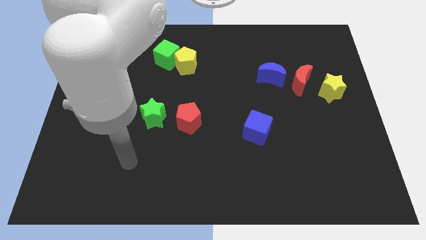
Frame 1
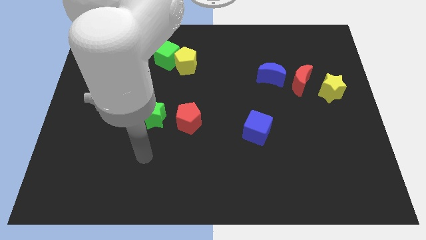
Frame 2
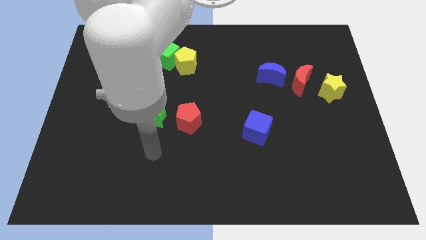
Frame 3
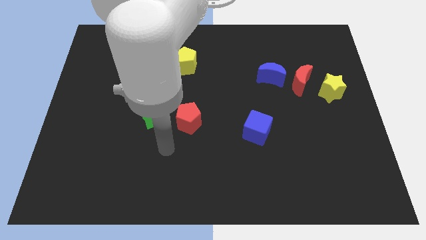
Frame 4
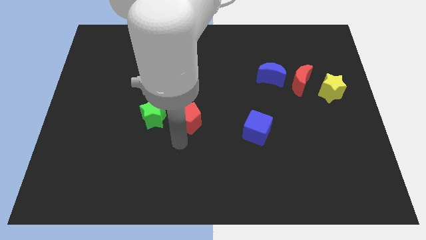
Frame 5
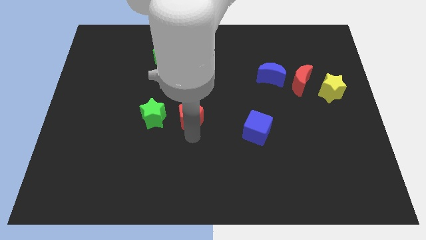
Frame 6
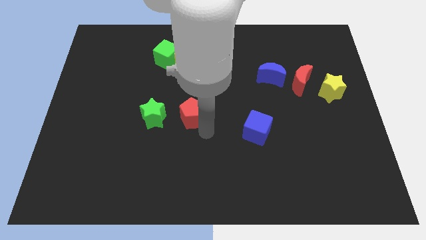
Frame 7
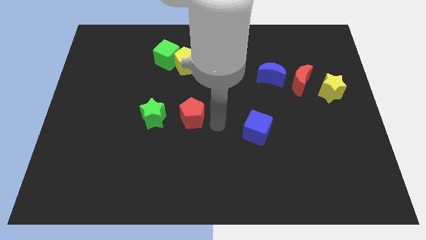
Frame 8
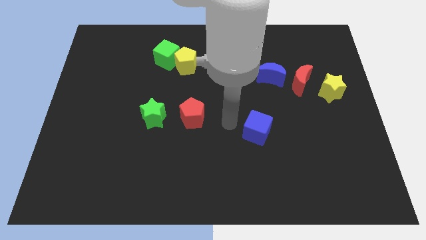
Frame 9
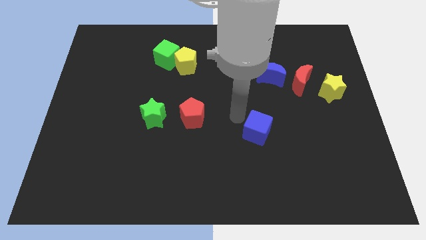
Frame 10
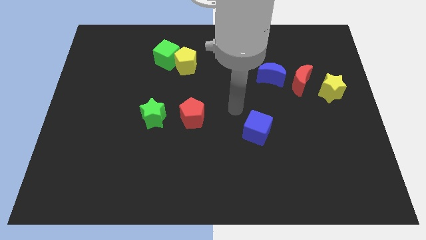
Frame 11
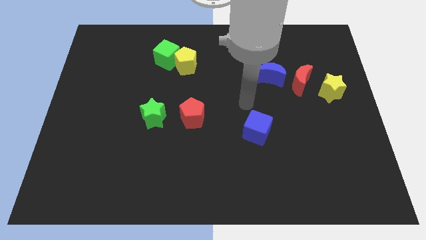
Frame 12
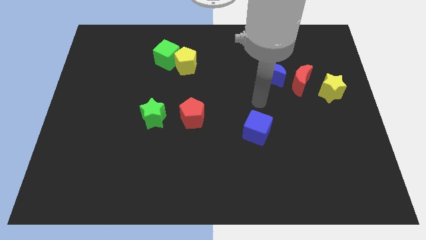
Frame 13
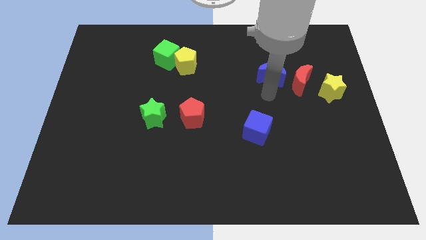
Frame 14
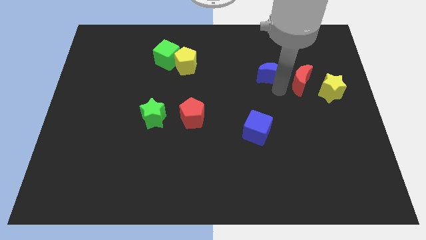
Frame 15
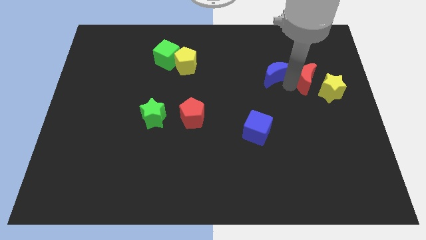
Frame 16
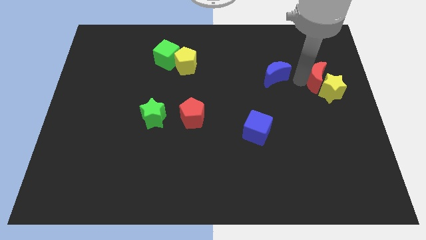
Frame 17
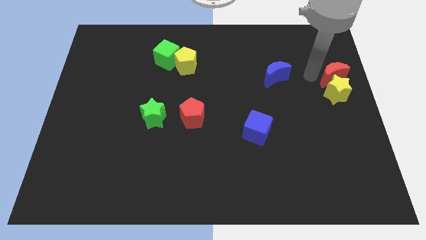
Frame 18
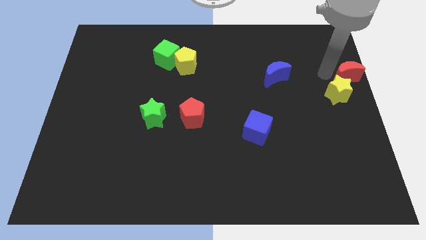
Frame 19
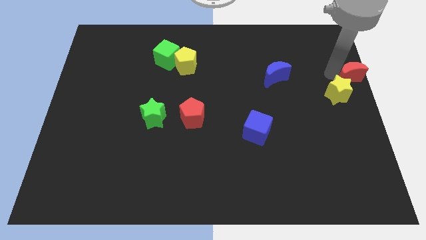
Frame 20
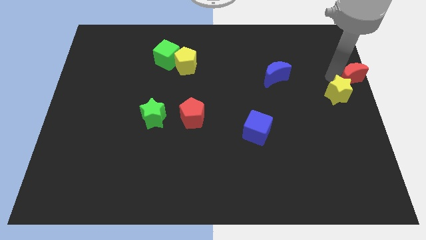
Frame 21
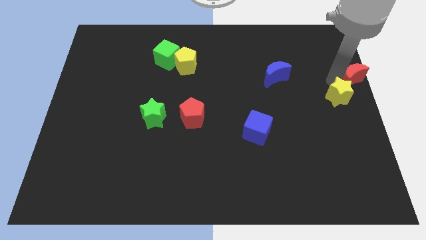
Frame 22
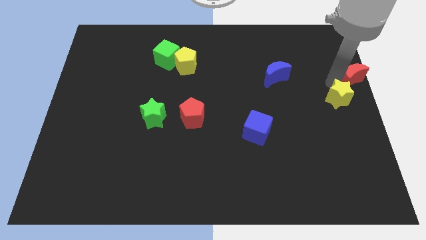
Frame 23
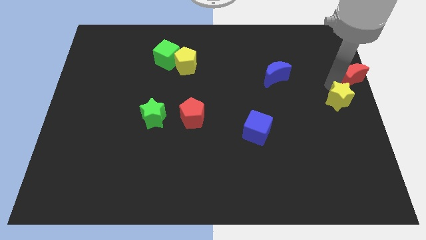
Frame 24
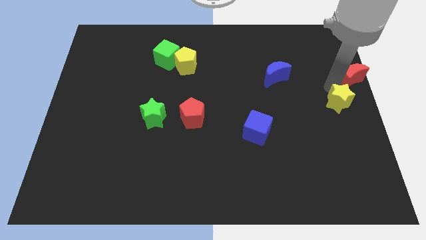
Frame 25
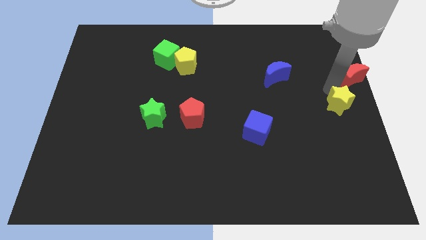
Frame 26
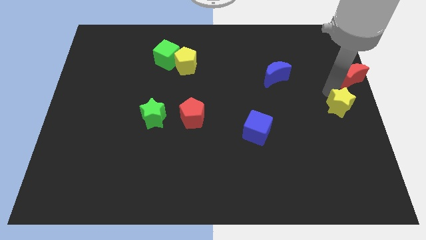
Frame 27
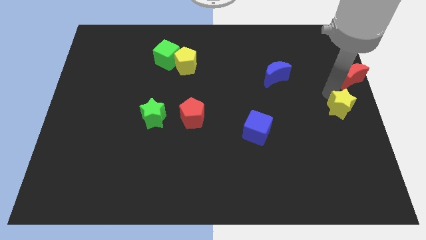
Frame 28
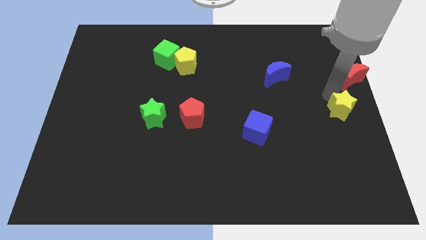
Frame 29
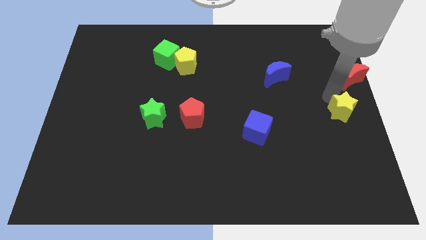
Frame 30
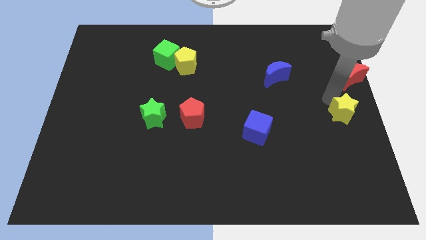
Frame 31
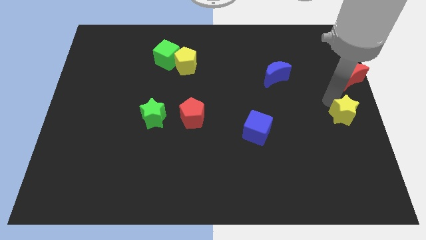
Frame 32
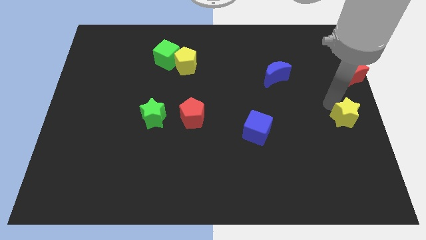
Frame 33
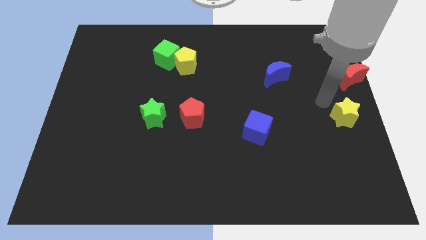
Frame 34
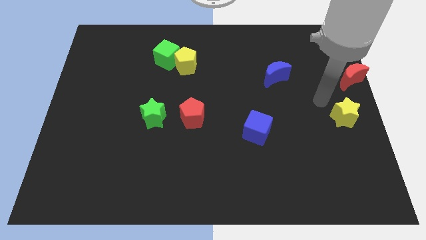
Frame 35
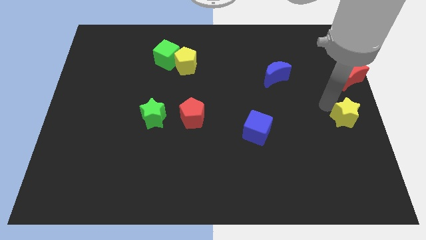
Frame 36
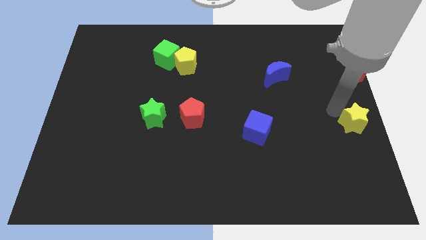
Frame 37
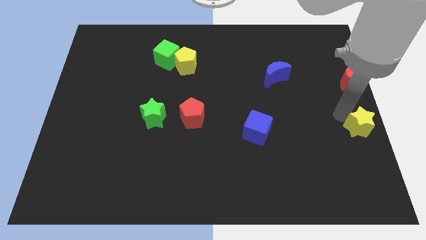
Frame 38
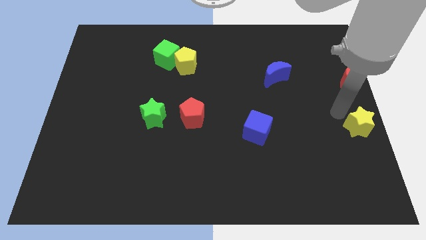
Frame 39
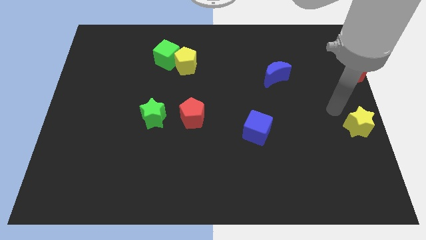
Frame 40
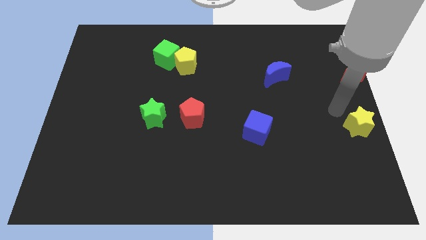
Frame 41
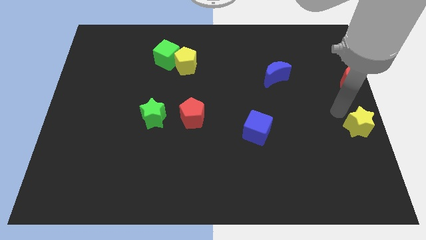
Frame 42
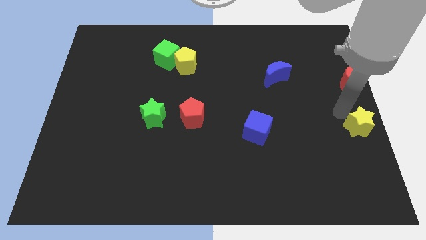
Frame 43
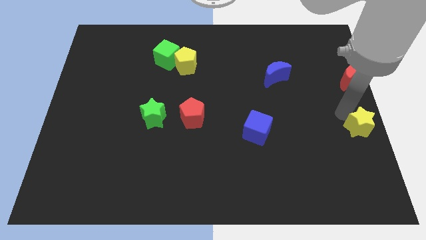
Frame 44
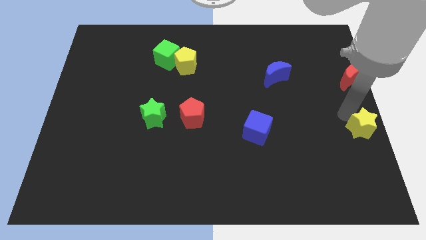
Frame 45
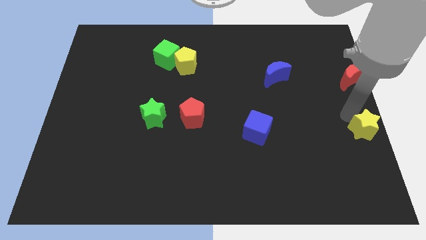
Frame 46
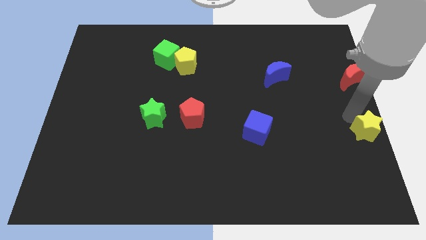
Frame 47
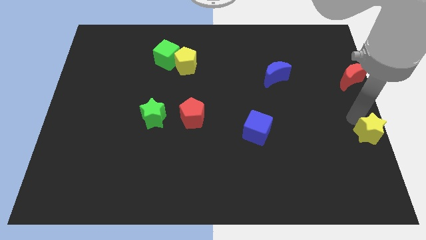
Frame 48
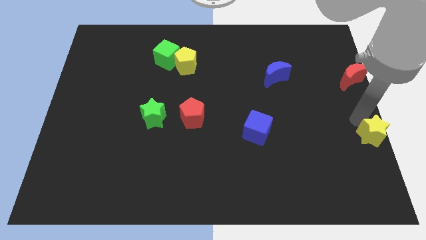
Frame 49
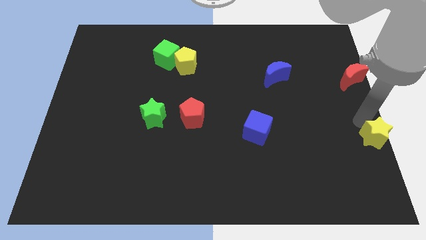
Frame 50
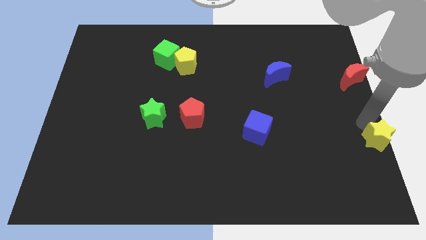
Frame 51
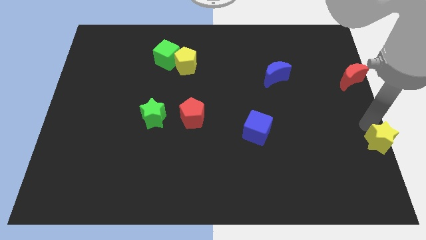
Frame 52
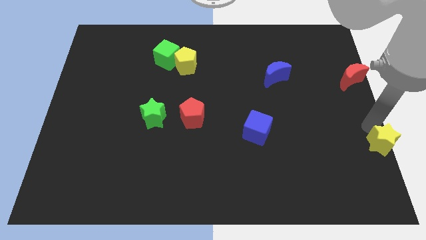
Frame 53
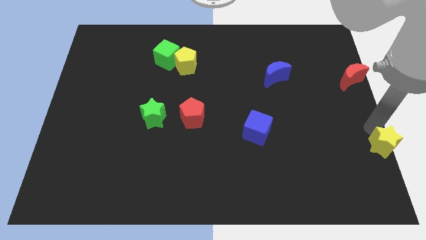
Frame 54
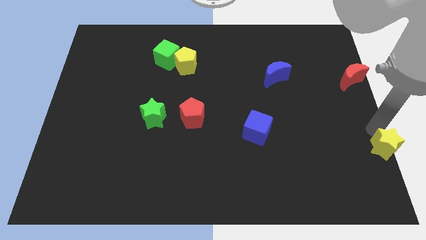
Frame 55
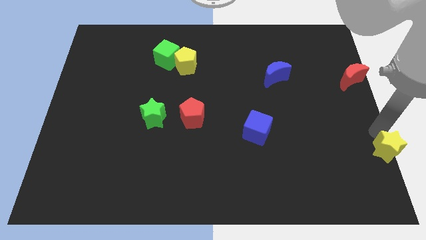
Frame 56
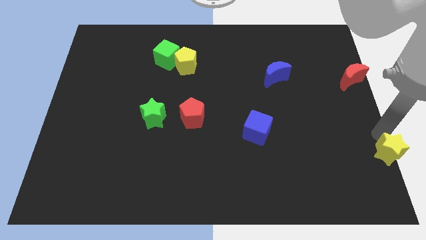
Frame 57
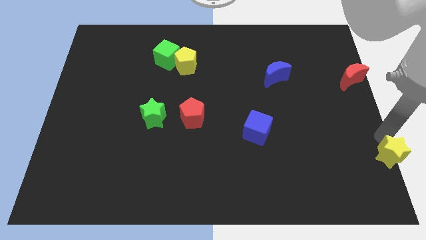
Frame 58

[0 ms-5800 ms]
slide the yellow star to the bottom right
